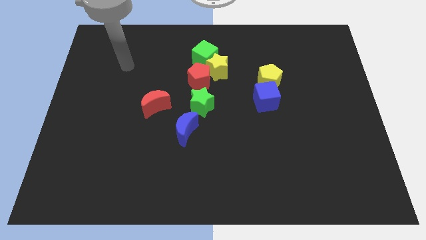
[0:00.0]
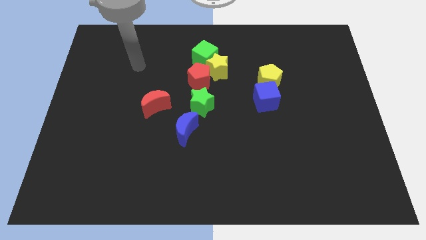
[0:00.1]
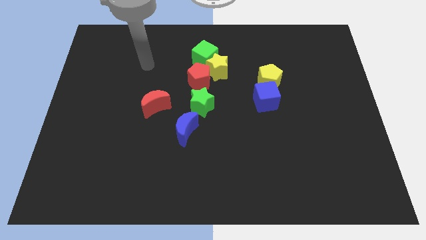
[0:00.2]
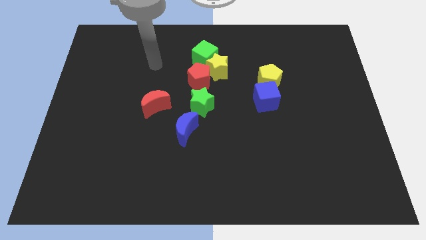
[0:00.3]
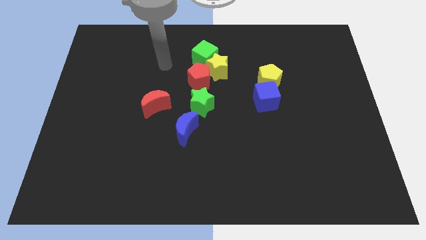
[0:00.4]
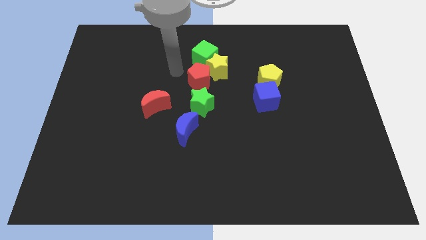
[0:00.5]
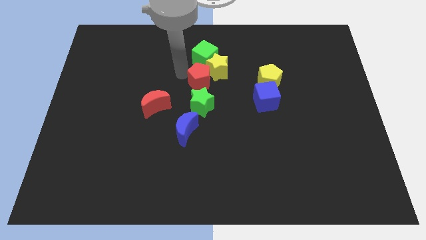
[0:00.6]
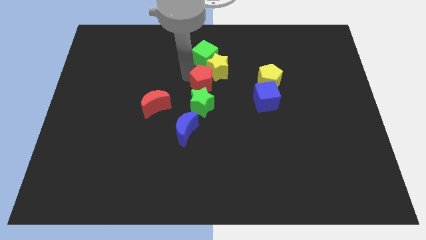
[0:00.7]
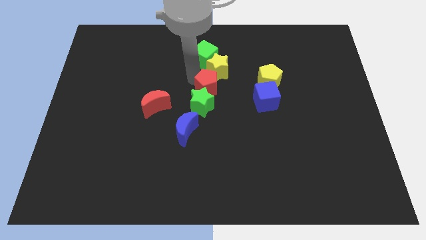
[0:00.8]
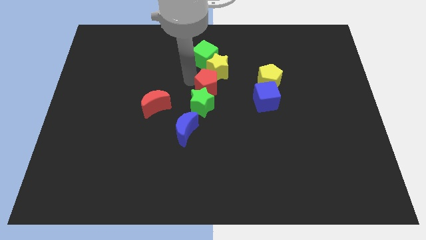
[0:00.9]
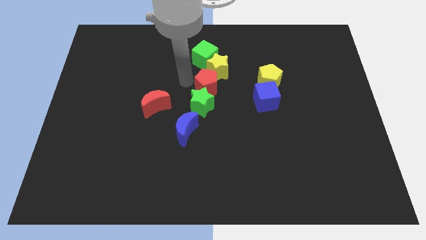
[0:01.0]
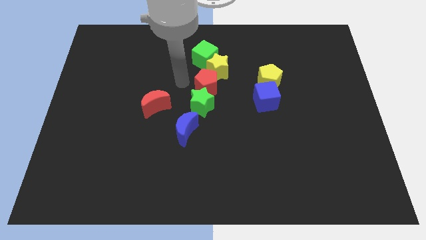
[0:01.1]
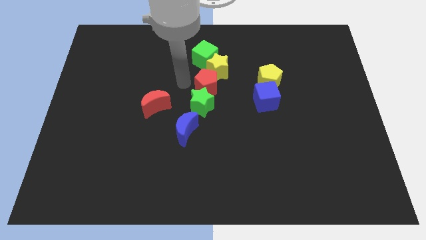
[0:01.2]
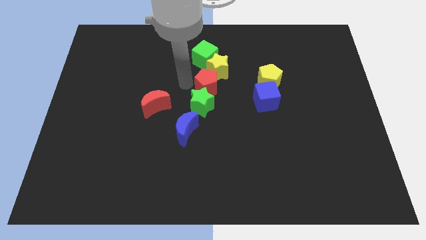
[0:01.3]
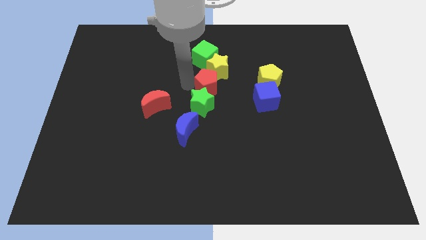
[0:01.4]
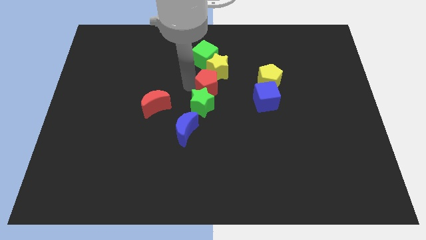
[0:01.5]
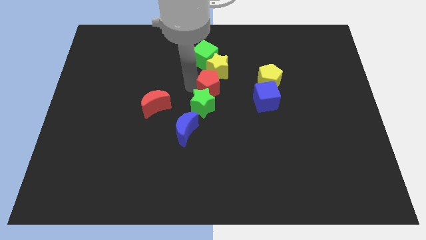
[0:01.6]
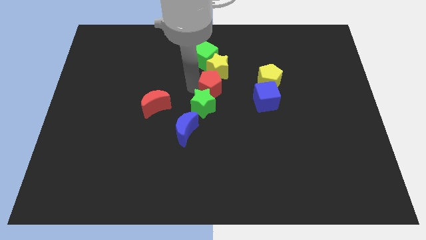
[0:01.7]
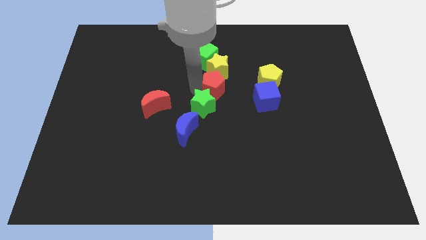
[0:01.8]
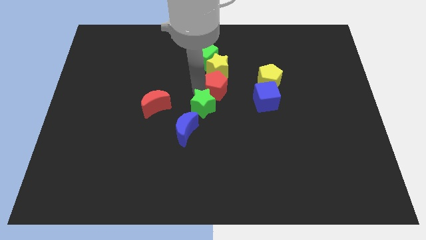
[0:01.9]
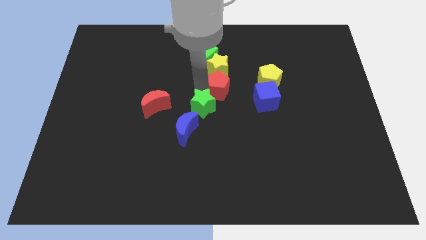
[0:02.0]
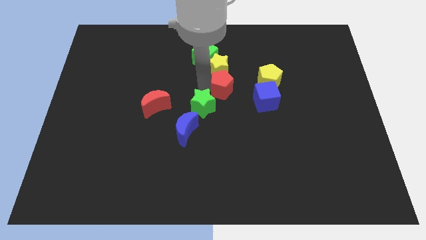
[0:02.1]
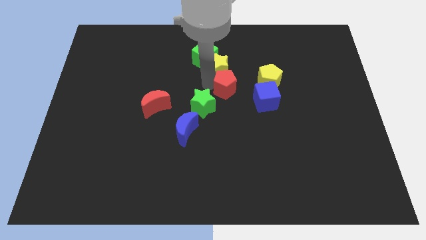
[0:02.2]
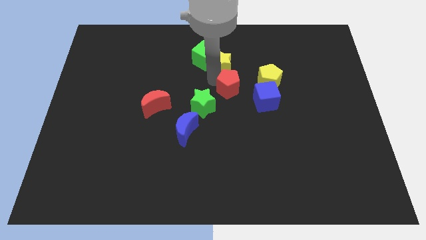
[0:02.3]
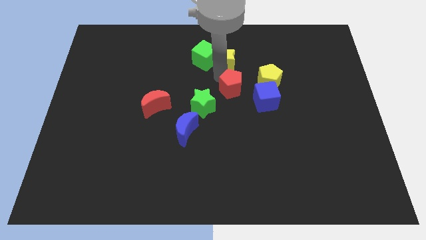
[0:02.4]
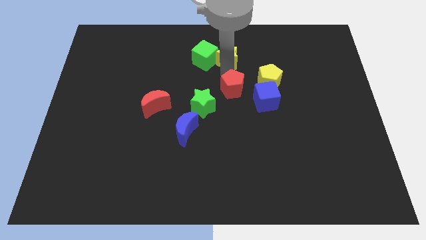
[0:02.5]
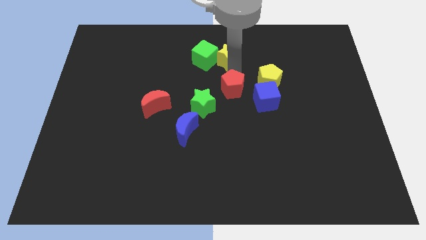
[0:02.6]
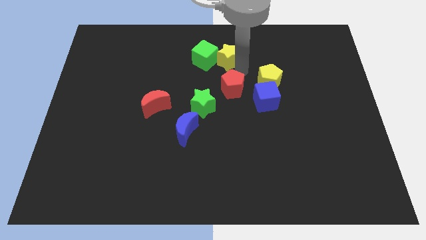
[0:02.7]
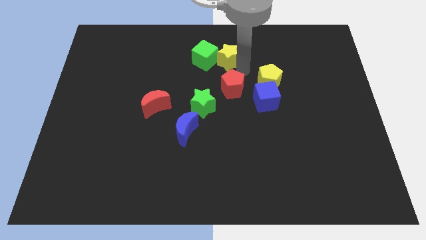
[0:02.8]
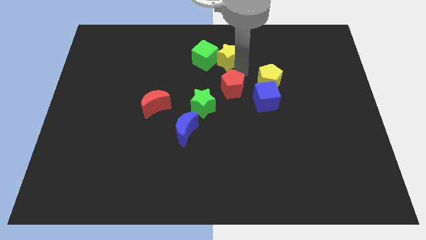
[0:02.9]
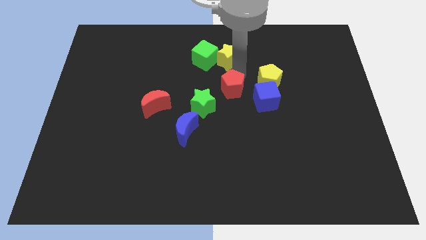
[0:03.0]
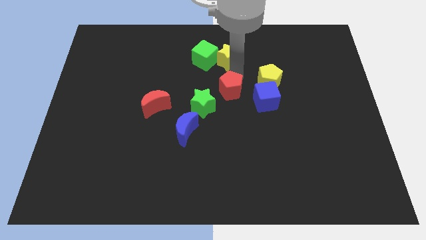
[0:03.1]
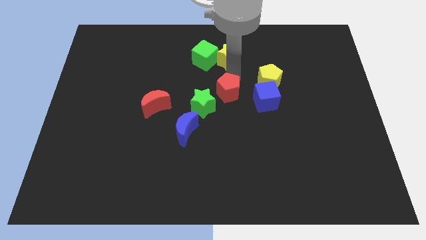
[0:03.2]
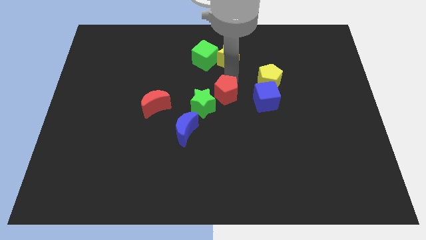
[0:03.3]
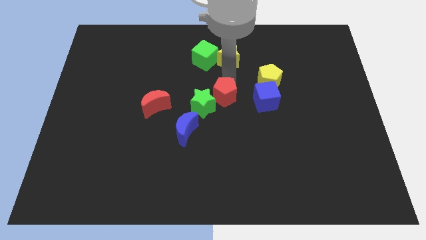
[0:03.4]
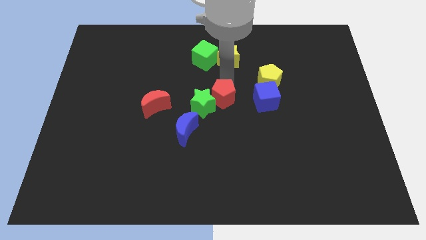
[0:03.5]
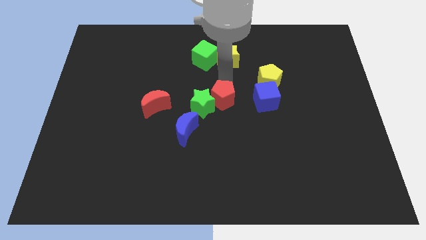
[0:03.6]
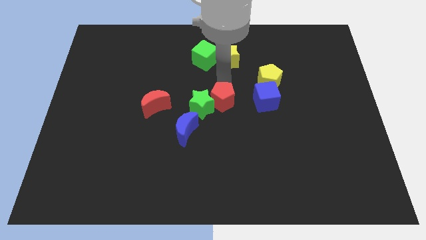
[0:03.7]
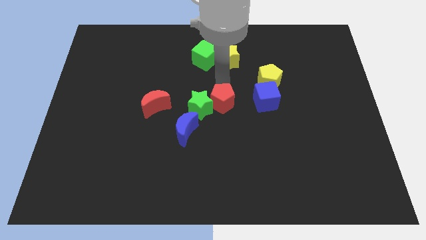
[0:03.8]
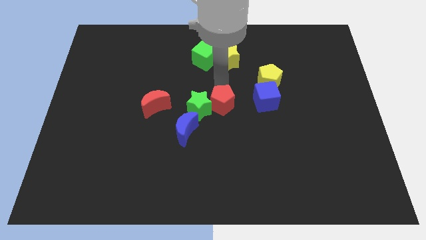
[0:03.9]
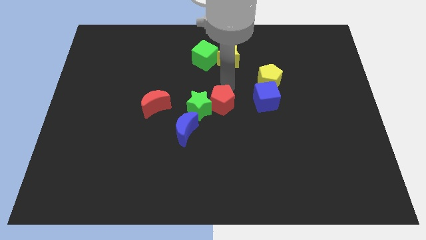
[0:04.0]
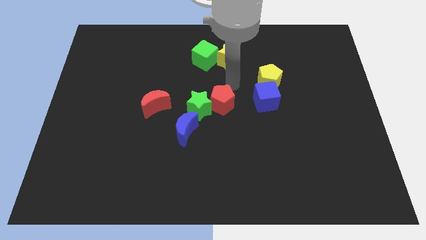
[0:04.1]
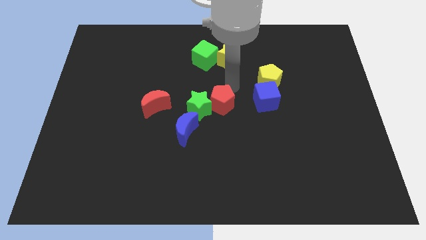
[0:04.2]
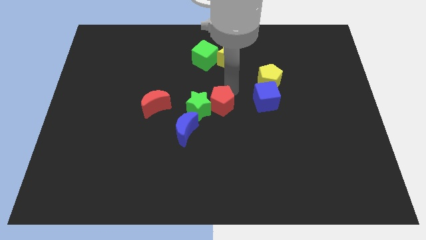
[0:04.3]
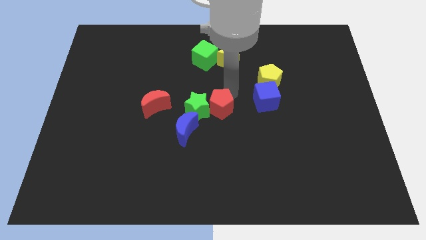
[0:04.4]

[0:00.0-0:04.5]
move the red pentagon downwards a bit

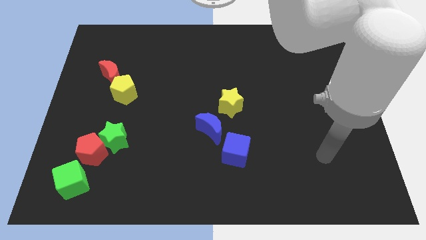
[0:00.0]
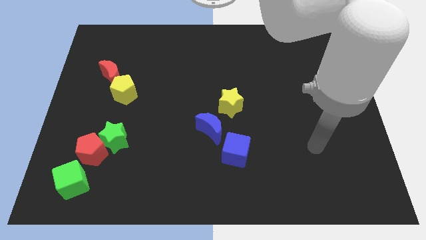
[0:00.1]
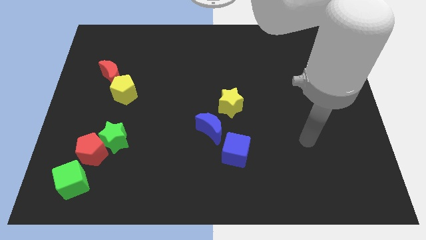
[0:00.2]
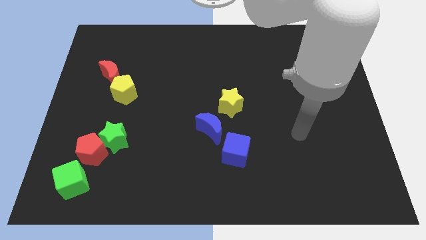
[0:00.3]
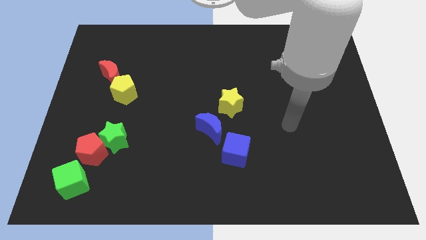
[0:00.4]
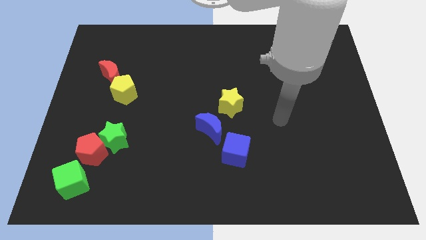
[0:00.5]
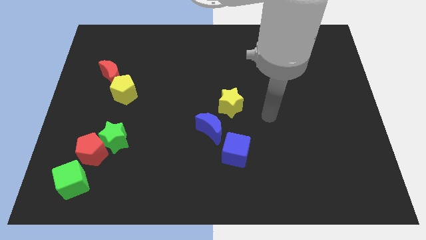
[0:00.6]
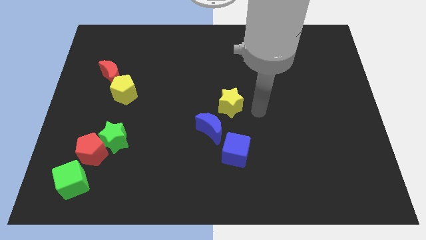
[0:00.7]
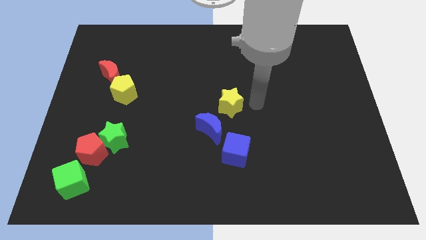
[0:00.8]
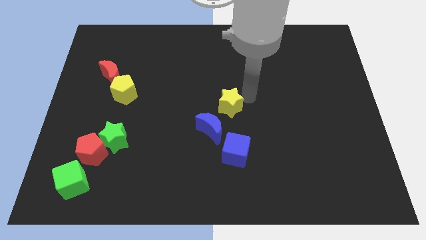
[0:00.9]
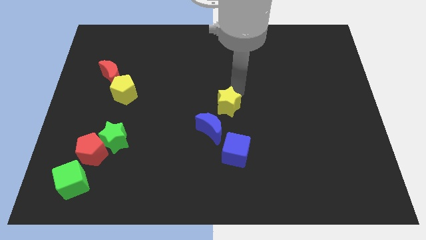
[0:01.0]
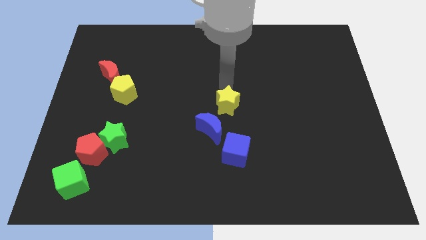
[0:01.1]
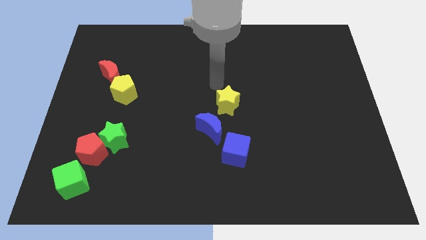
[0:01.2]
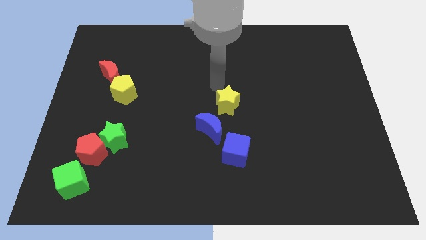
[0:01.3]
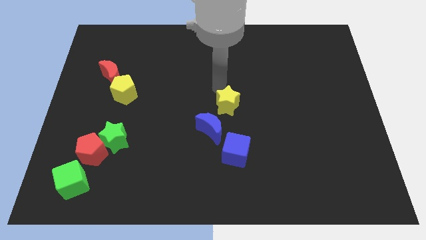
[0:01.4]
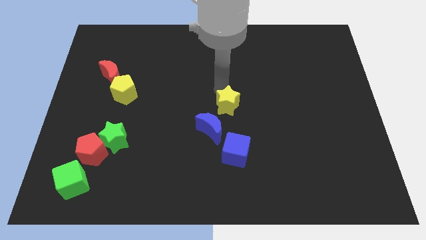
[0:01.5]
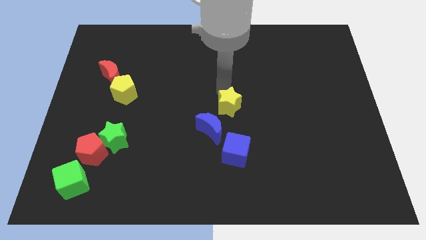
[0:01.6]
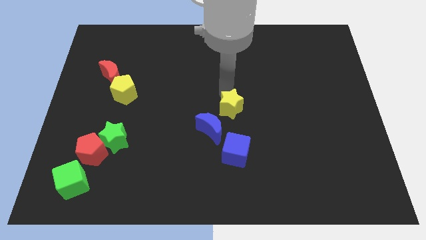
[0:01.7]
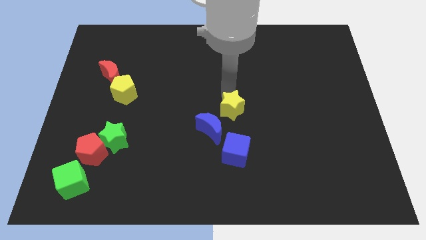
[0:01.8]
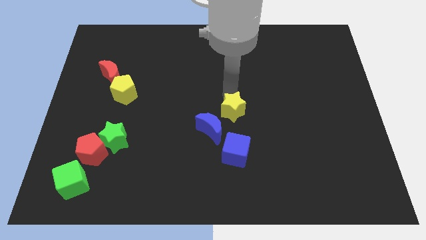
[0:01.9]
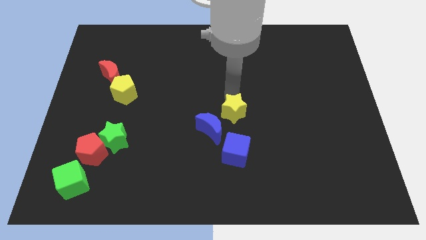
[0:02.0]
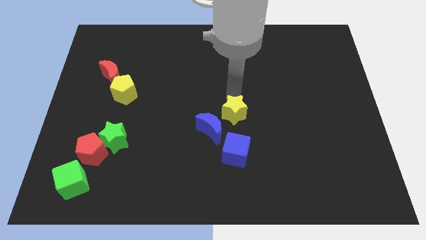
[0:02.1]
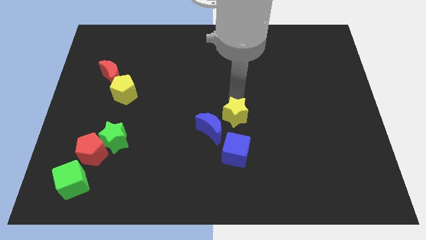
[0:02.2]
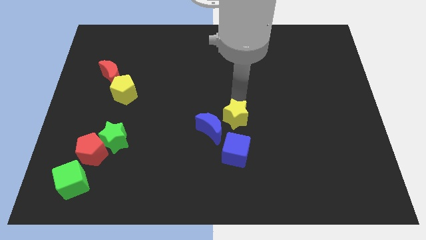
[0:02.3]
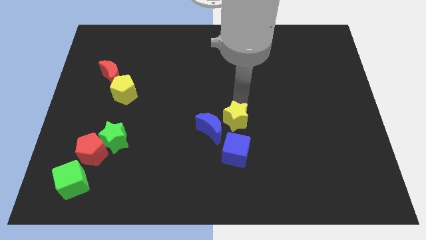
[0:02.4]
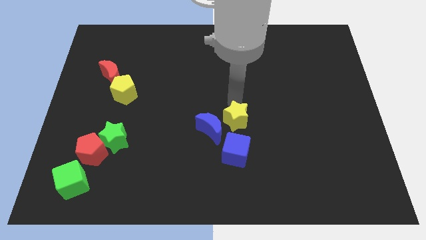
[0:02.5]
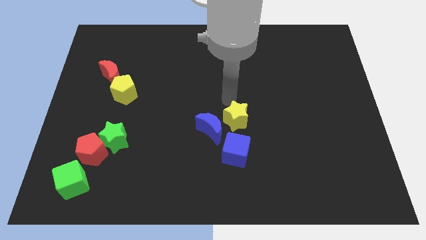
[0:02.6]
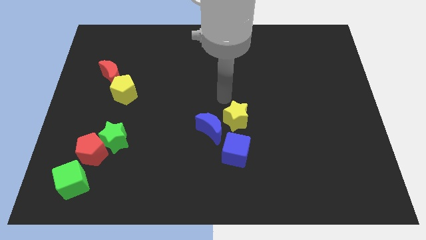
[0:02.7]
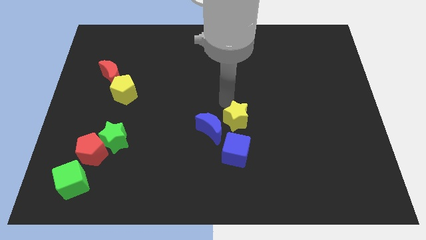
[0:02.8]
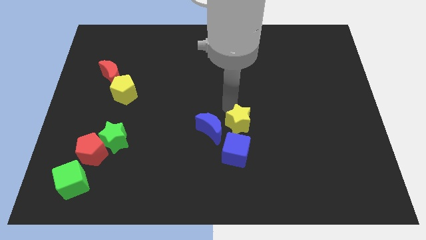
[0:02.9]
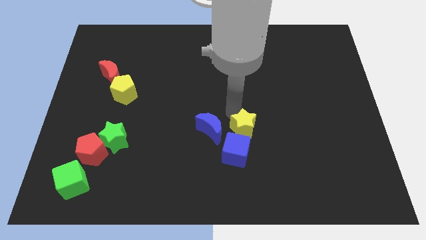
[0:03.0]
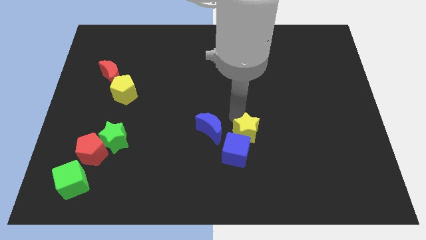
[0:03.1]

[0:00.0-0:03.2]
move the yellow star a little bit downwards

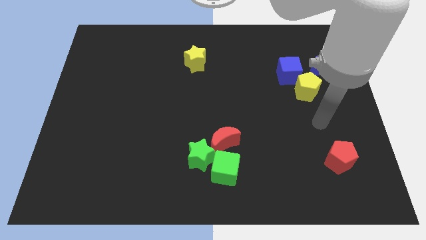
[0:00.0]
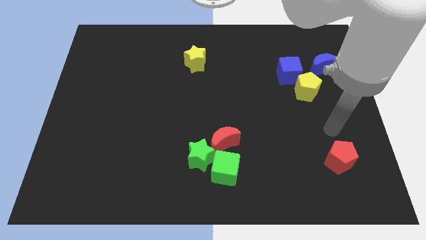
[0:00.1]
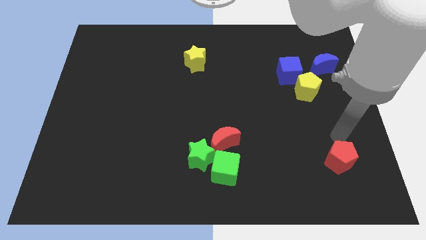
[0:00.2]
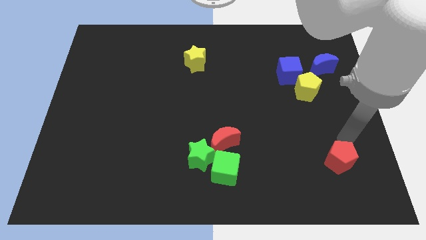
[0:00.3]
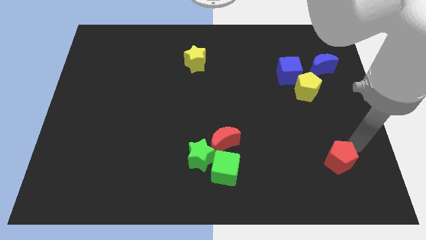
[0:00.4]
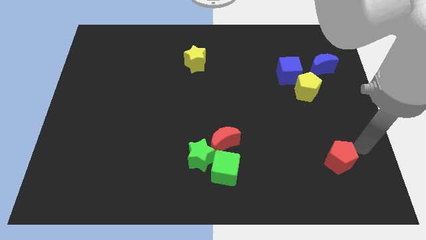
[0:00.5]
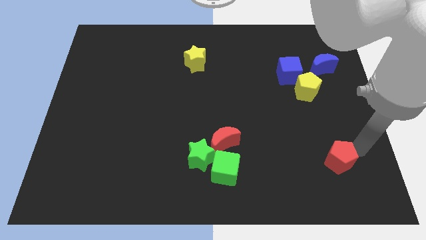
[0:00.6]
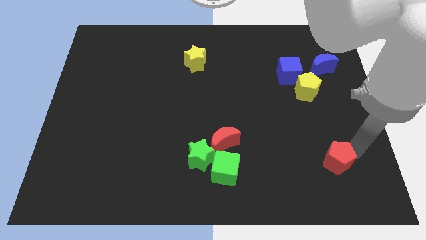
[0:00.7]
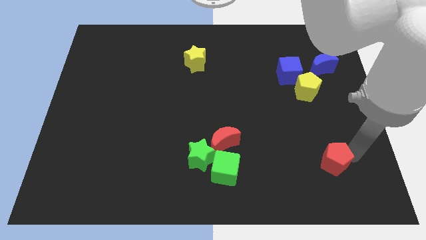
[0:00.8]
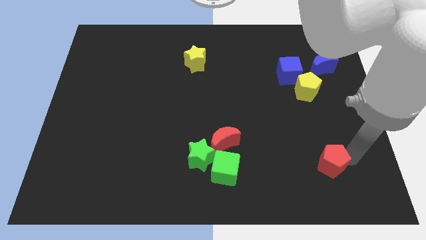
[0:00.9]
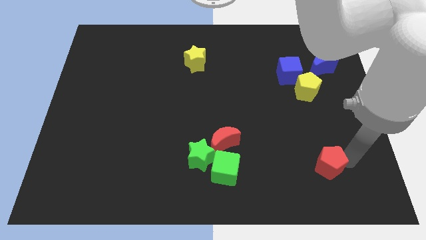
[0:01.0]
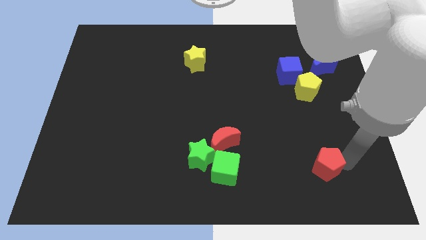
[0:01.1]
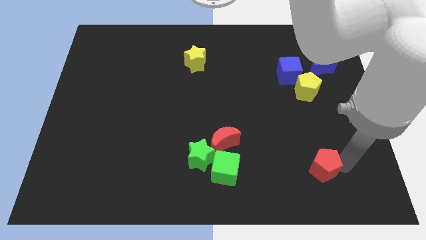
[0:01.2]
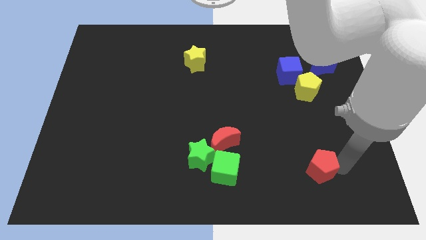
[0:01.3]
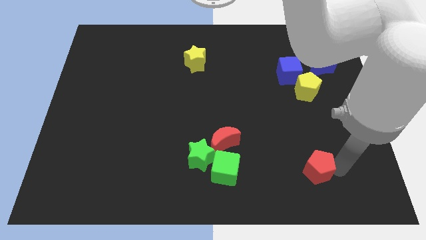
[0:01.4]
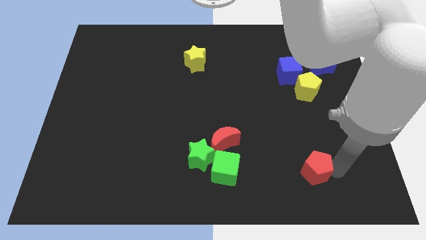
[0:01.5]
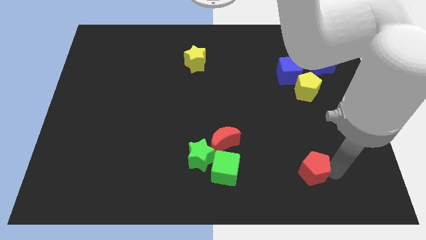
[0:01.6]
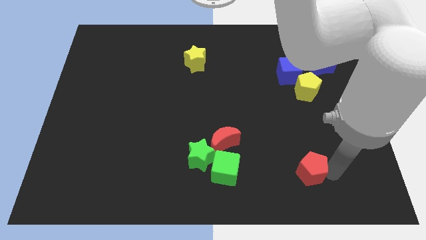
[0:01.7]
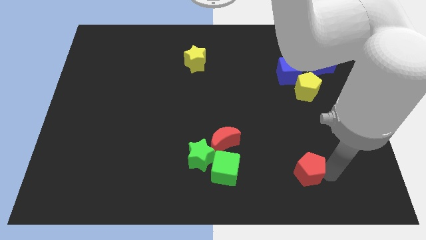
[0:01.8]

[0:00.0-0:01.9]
slide the red pentagon a little bit left
